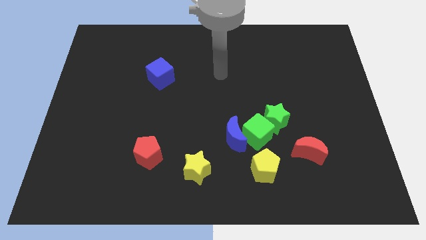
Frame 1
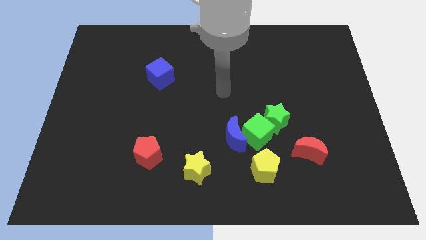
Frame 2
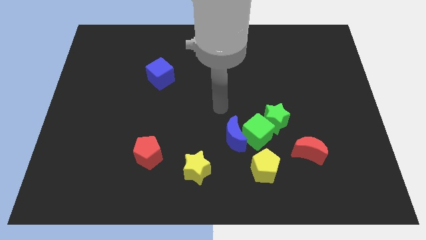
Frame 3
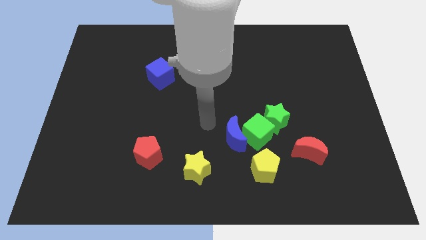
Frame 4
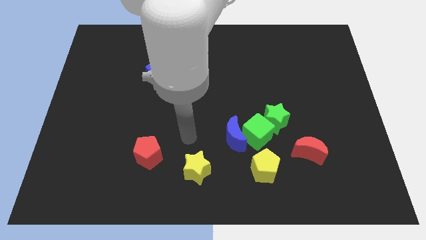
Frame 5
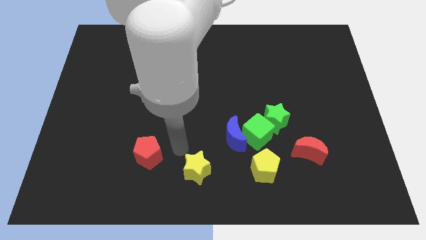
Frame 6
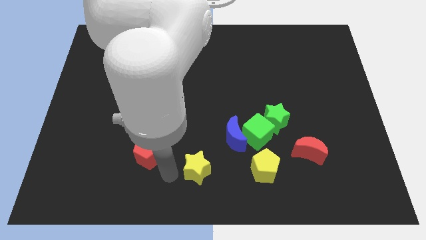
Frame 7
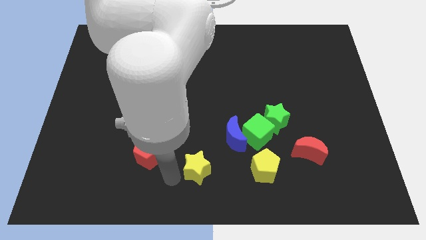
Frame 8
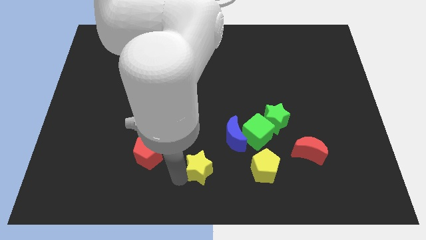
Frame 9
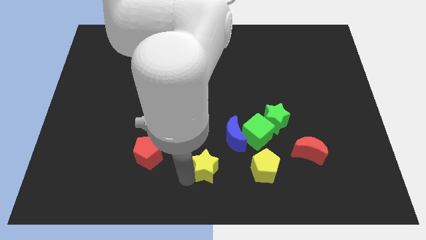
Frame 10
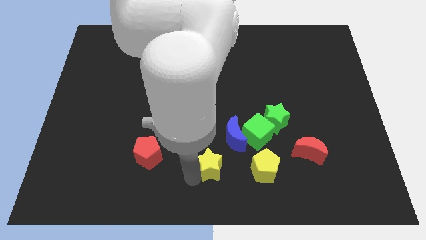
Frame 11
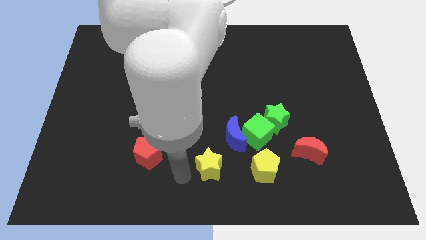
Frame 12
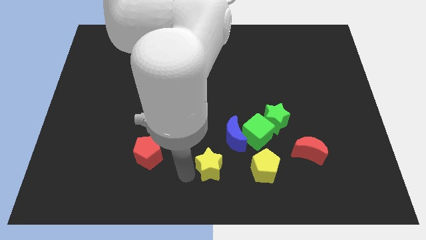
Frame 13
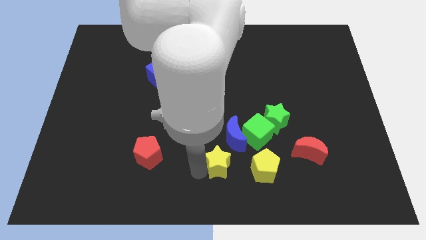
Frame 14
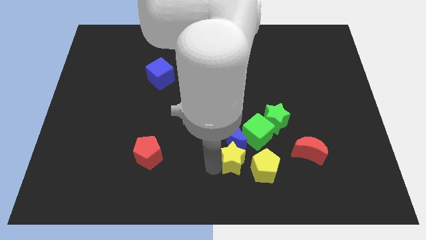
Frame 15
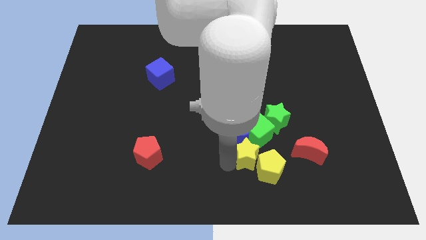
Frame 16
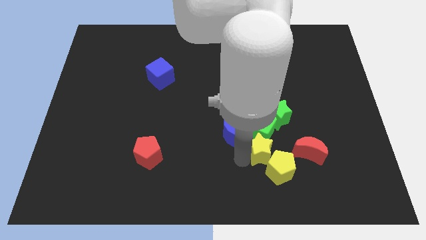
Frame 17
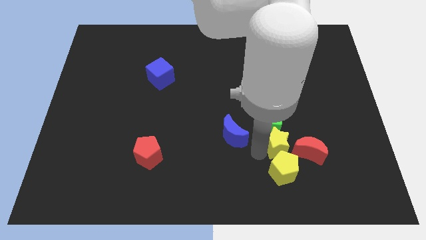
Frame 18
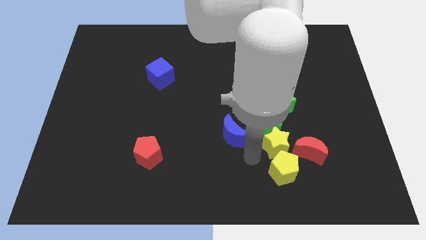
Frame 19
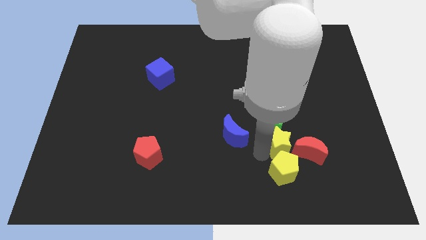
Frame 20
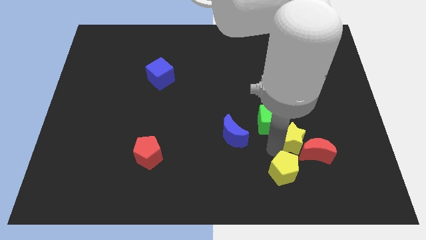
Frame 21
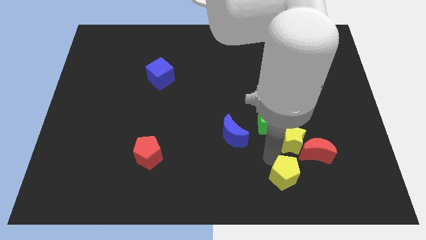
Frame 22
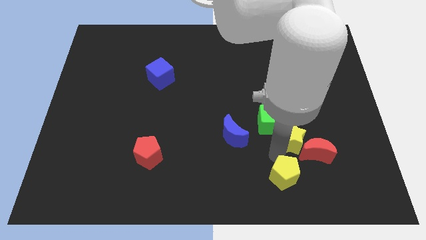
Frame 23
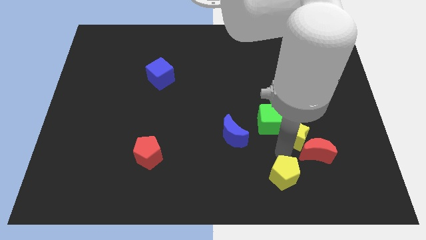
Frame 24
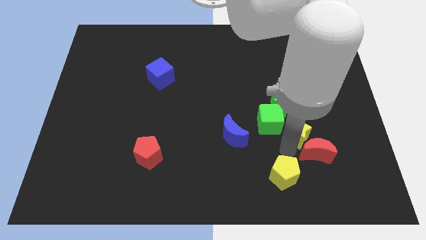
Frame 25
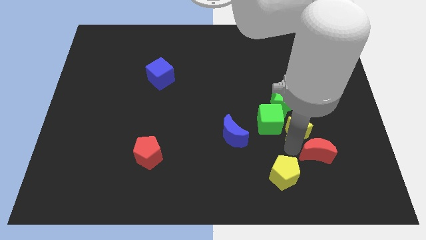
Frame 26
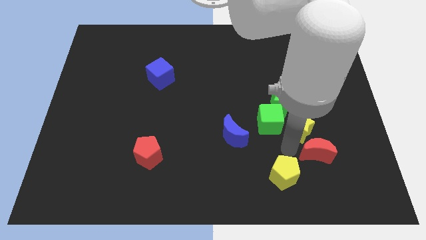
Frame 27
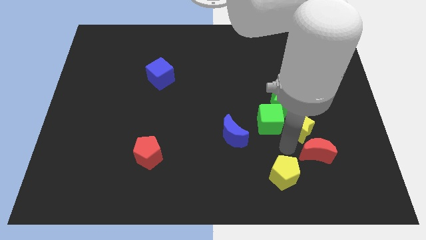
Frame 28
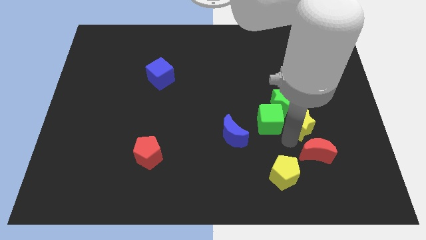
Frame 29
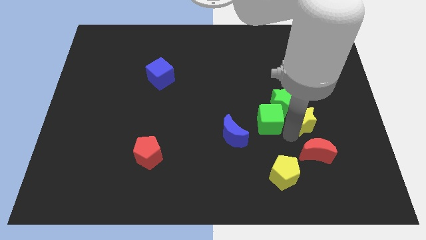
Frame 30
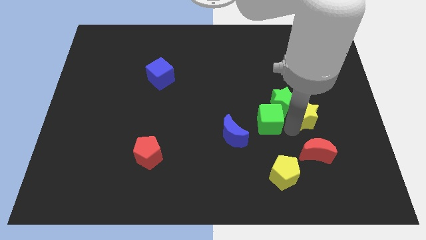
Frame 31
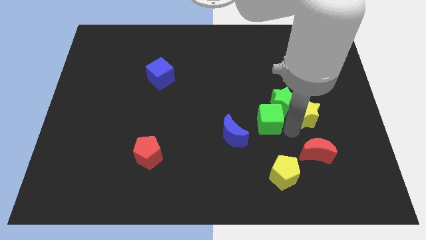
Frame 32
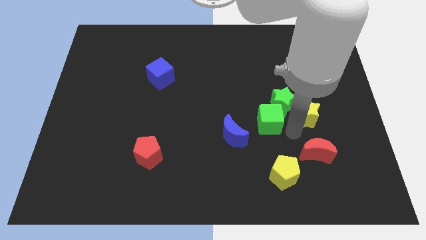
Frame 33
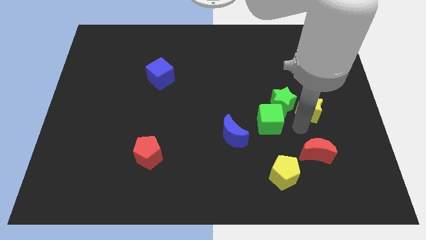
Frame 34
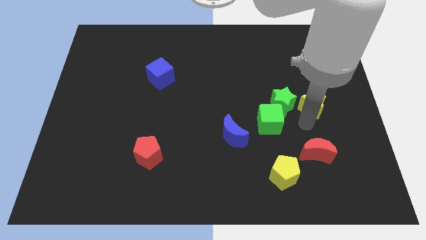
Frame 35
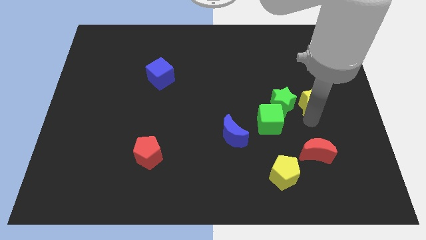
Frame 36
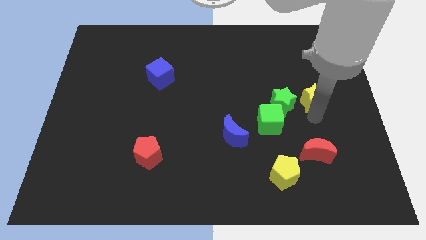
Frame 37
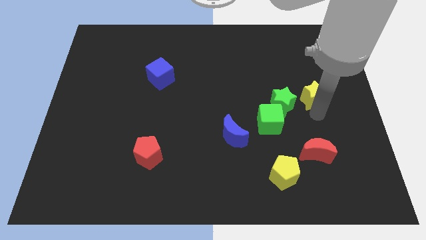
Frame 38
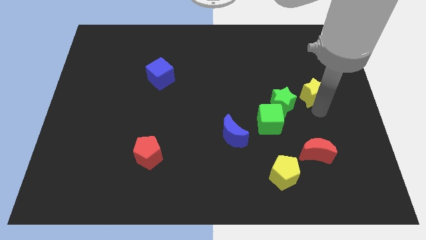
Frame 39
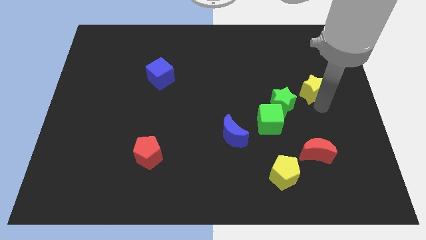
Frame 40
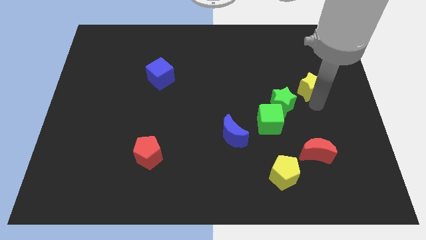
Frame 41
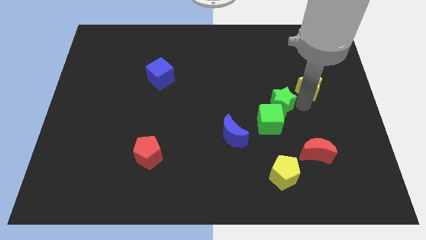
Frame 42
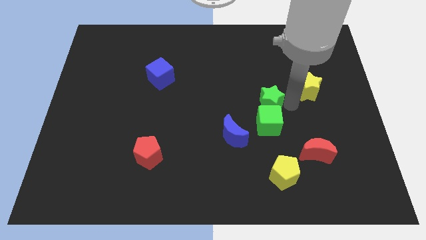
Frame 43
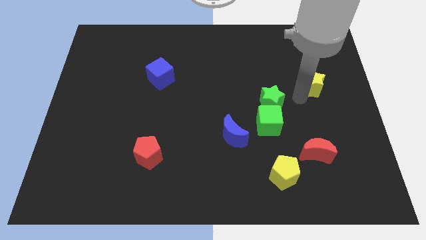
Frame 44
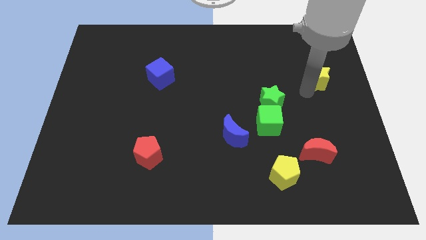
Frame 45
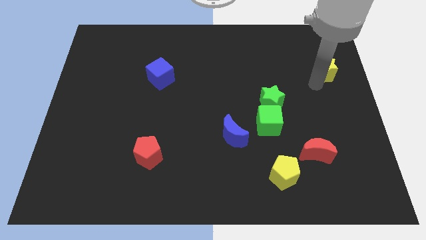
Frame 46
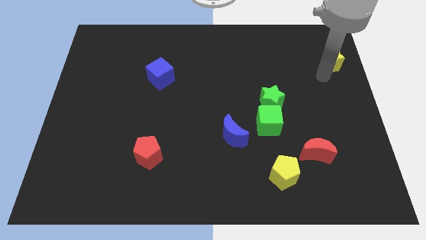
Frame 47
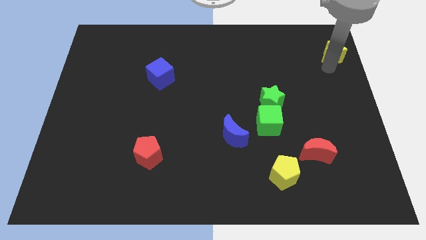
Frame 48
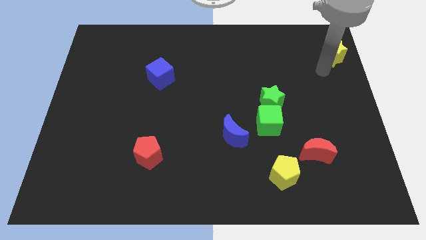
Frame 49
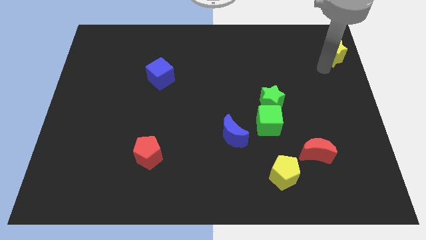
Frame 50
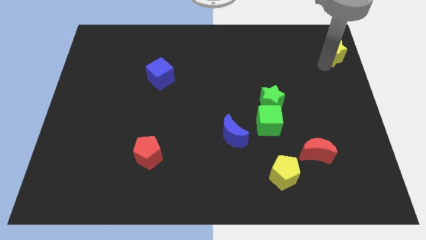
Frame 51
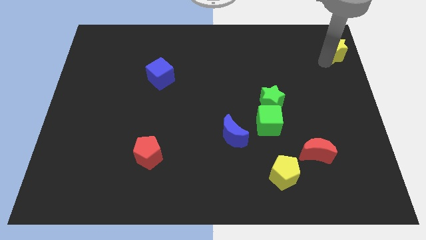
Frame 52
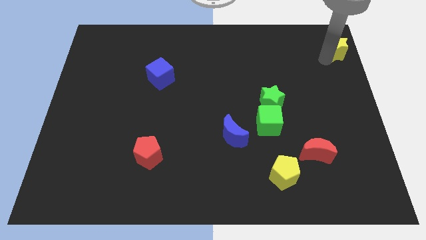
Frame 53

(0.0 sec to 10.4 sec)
put the yellow star to the upper right corner
